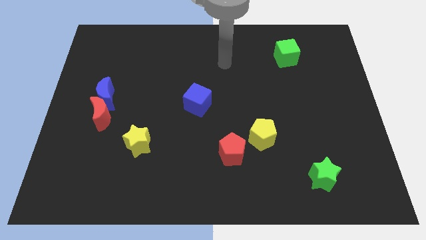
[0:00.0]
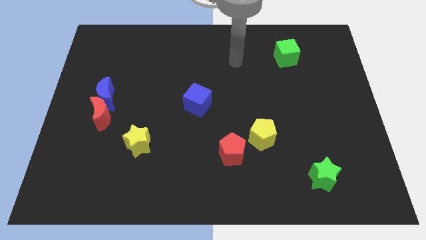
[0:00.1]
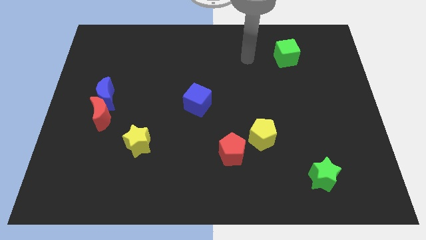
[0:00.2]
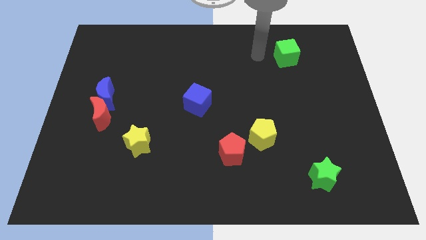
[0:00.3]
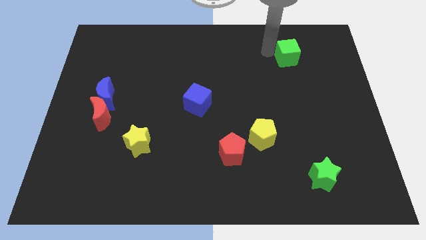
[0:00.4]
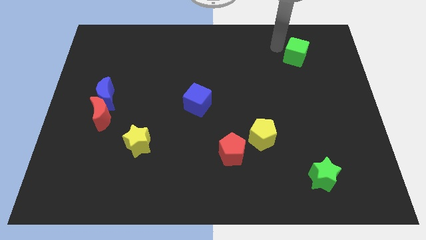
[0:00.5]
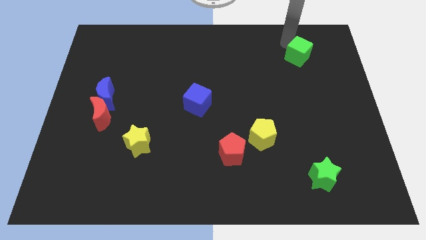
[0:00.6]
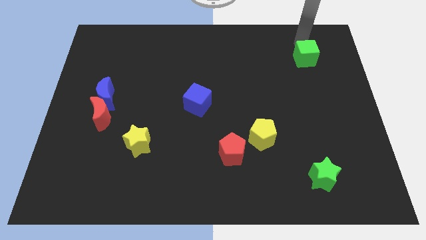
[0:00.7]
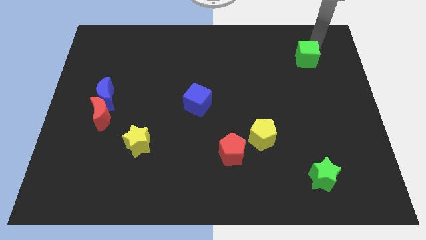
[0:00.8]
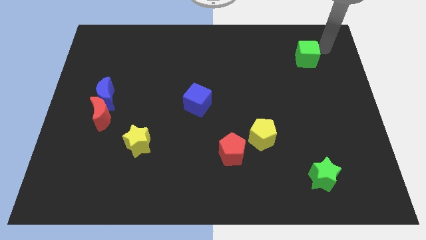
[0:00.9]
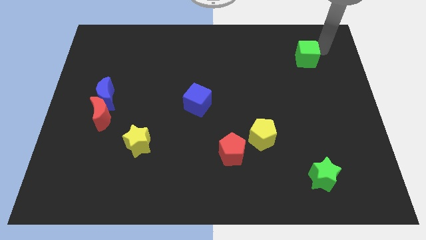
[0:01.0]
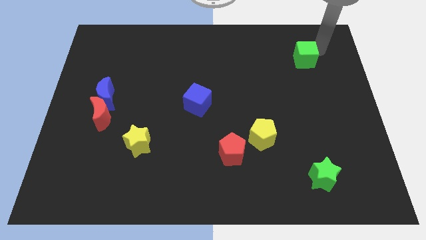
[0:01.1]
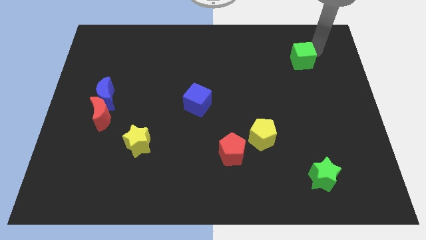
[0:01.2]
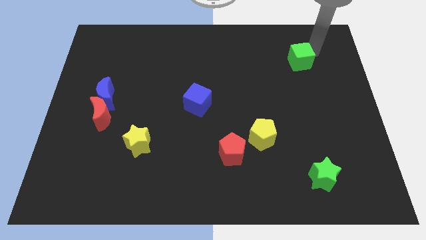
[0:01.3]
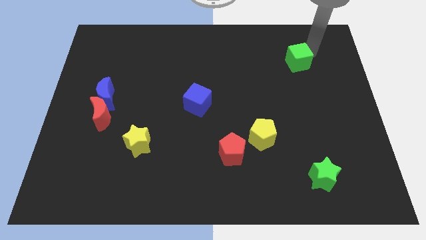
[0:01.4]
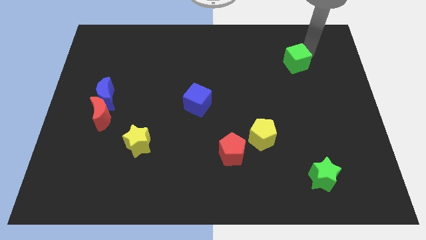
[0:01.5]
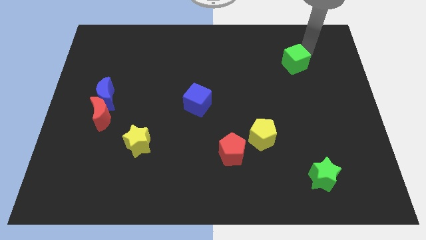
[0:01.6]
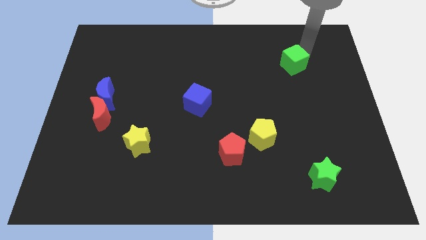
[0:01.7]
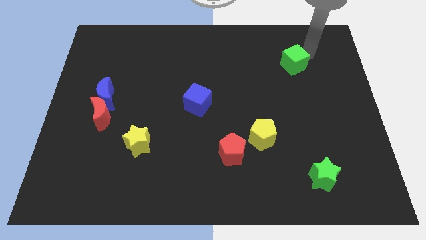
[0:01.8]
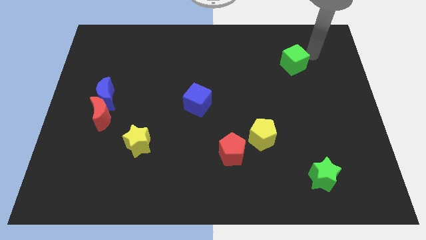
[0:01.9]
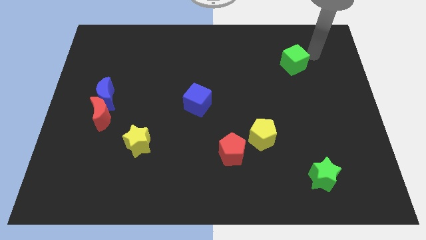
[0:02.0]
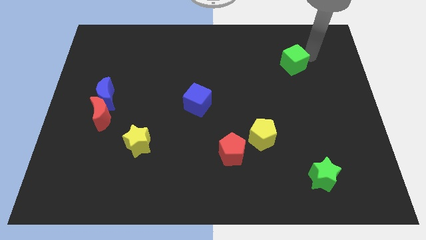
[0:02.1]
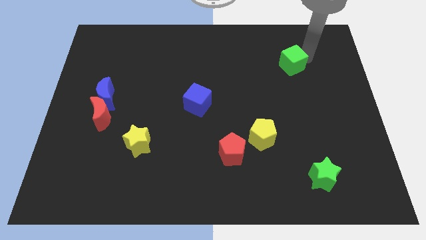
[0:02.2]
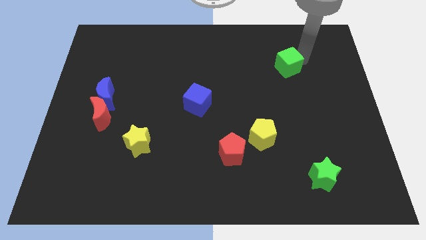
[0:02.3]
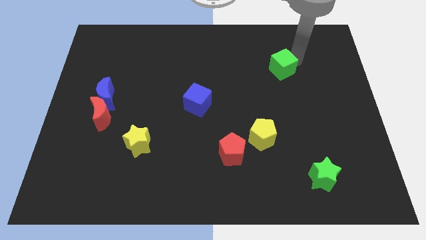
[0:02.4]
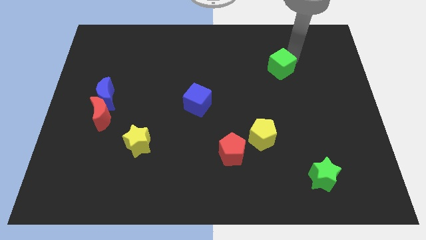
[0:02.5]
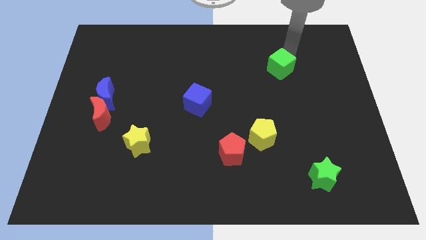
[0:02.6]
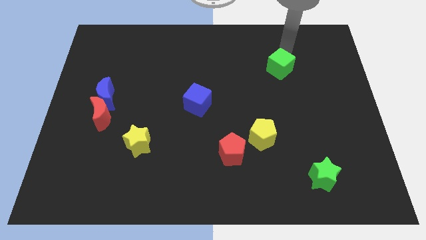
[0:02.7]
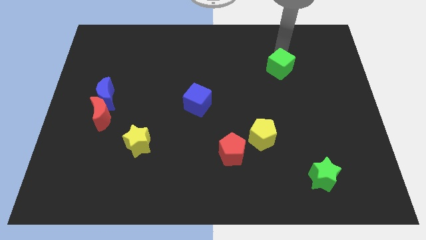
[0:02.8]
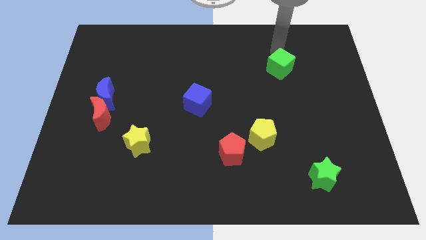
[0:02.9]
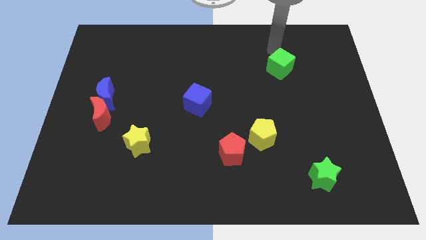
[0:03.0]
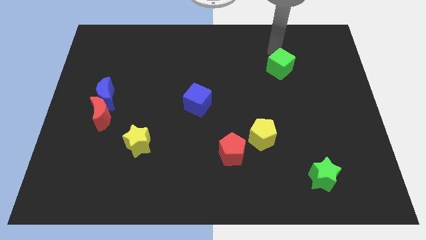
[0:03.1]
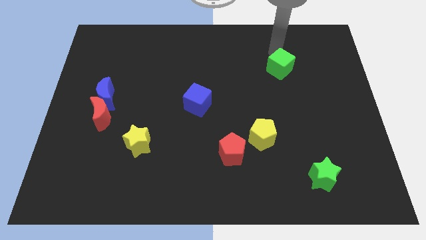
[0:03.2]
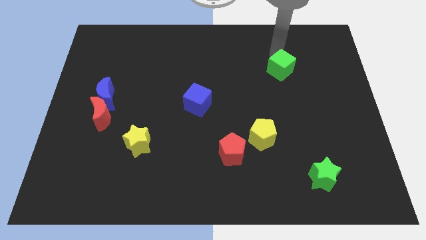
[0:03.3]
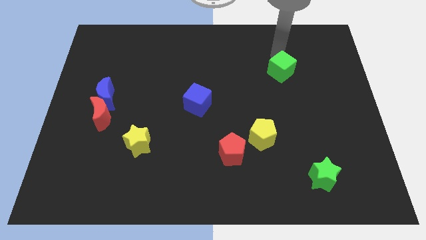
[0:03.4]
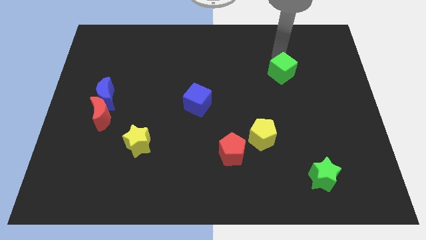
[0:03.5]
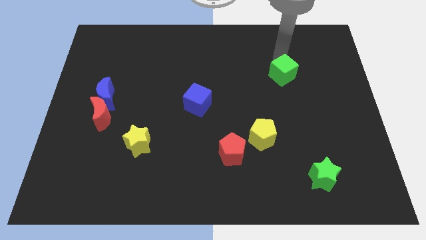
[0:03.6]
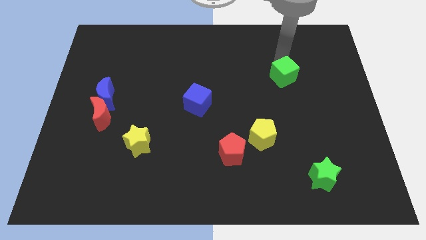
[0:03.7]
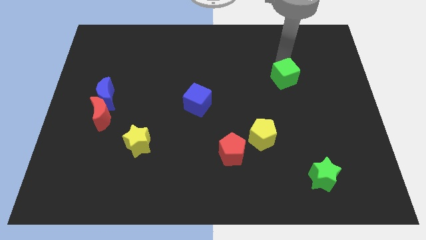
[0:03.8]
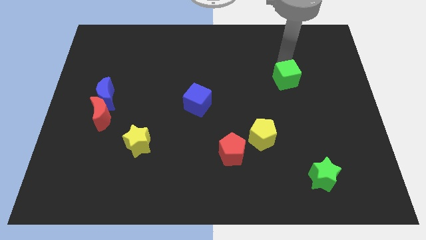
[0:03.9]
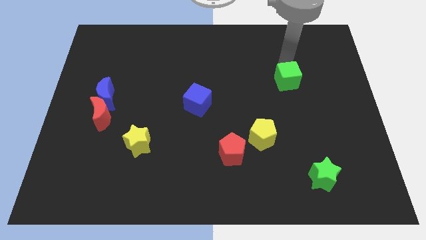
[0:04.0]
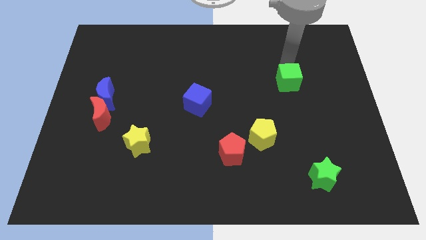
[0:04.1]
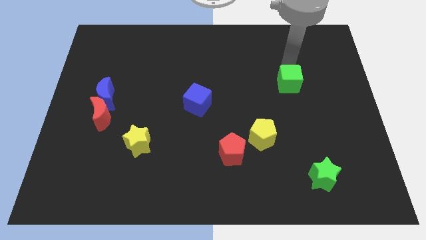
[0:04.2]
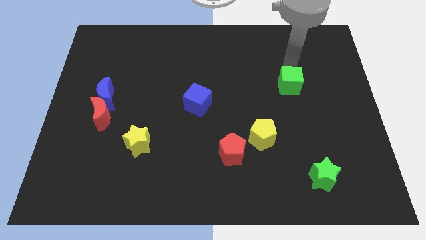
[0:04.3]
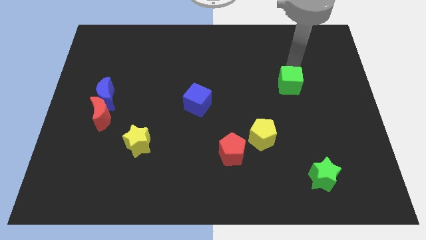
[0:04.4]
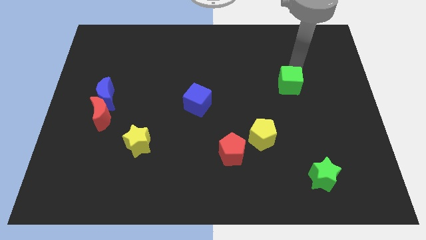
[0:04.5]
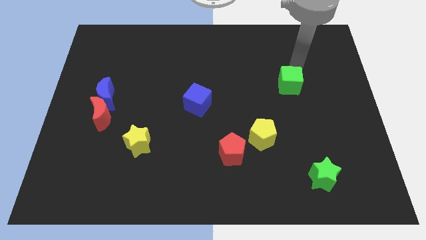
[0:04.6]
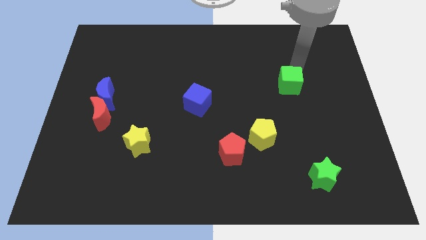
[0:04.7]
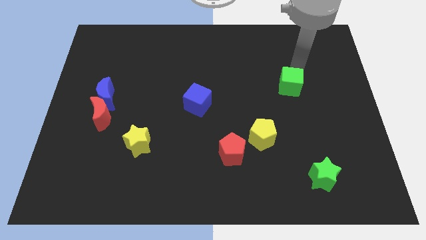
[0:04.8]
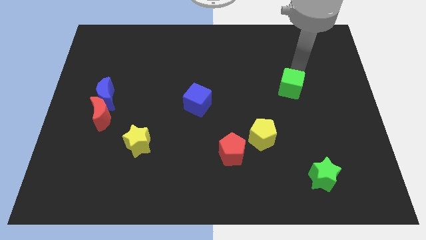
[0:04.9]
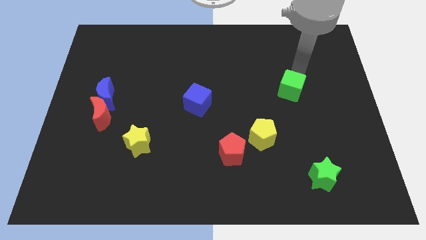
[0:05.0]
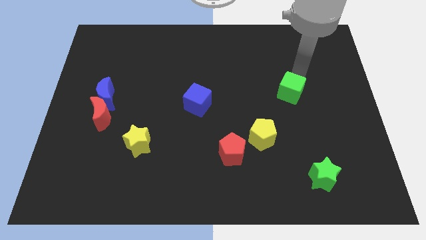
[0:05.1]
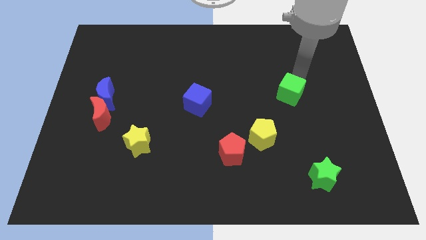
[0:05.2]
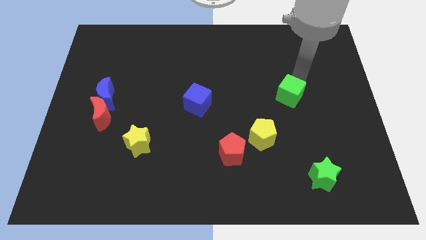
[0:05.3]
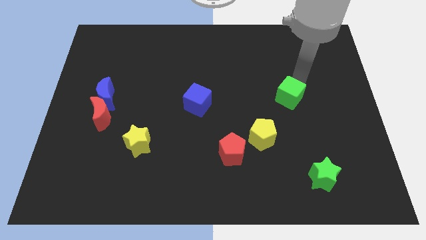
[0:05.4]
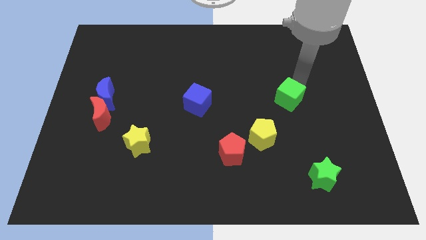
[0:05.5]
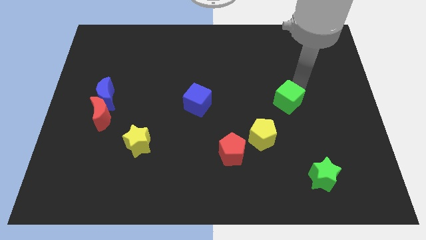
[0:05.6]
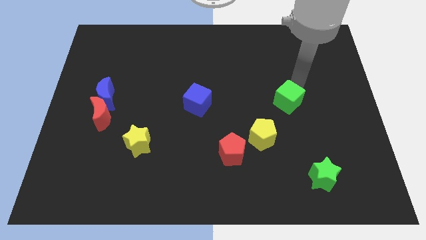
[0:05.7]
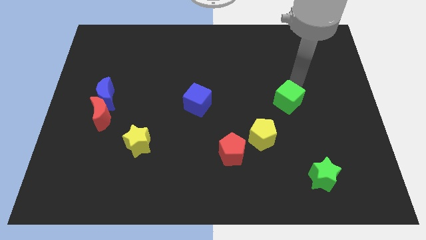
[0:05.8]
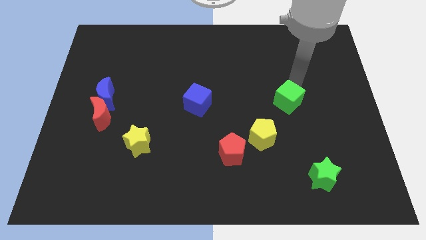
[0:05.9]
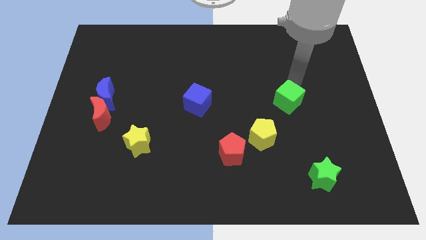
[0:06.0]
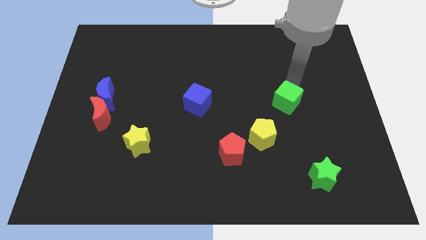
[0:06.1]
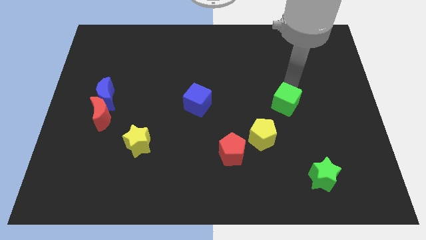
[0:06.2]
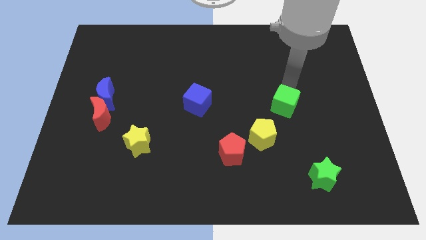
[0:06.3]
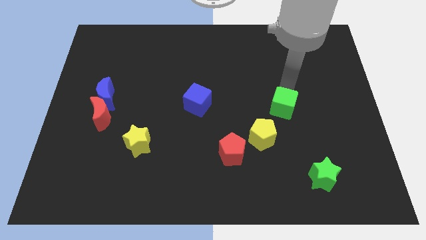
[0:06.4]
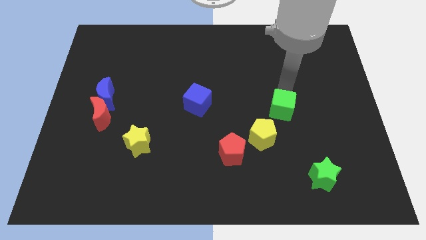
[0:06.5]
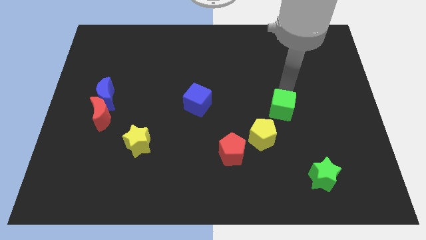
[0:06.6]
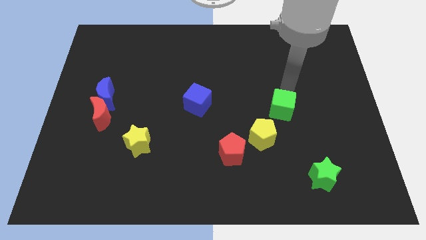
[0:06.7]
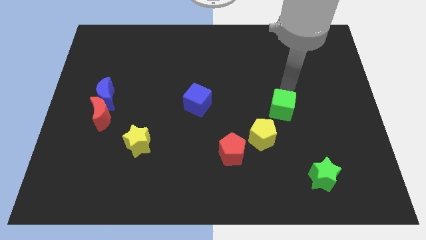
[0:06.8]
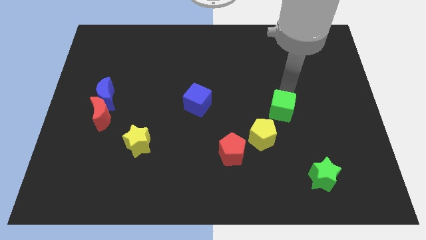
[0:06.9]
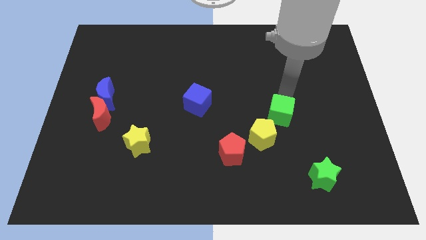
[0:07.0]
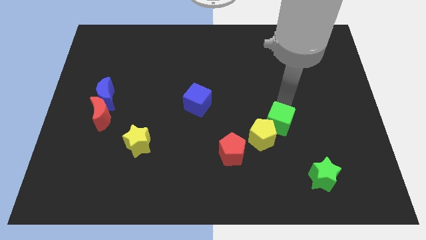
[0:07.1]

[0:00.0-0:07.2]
push the green cube to the yellow pentagon
